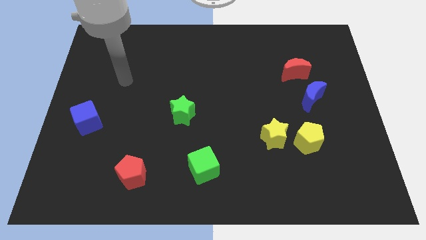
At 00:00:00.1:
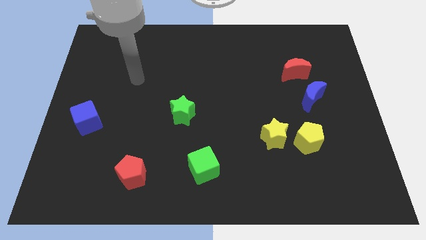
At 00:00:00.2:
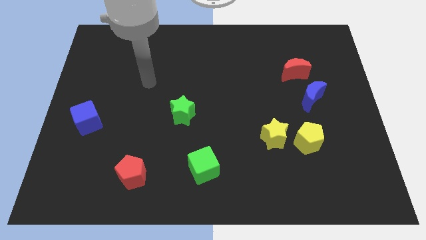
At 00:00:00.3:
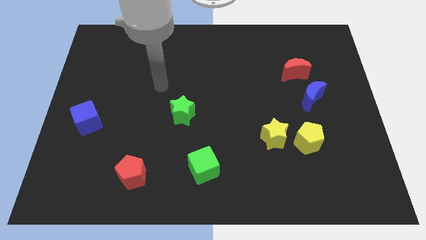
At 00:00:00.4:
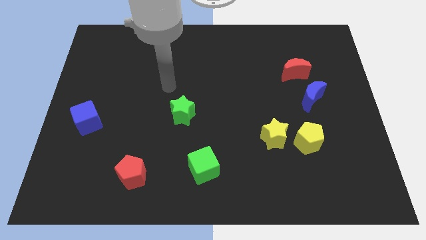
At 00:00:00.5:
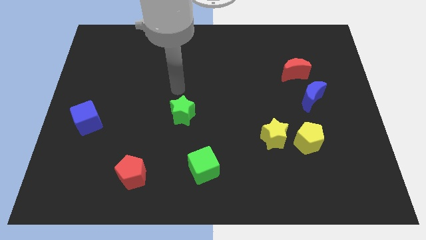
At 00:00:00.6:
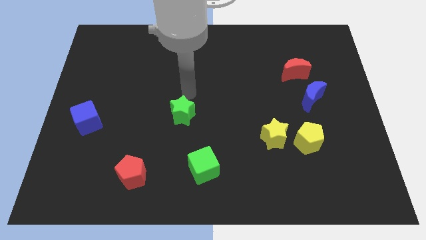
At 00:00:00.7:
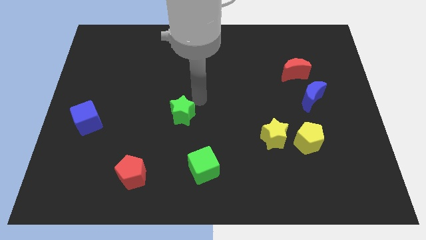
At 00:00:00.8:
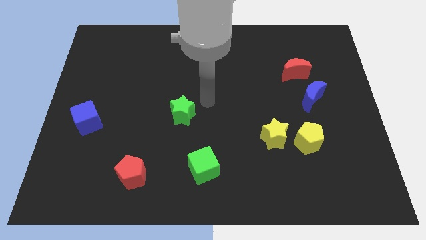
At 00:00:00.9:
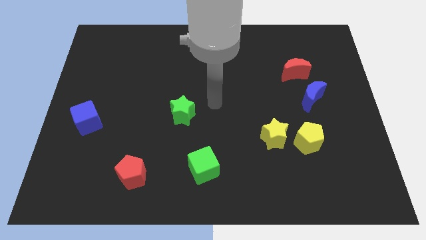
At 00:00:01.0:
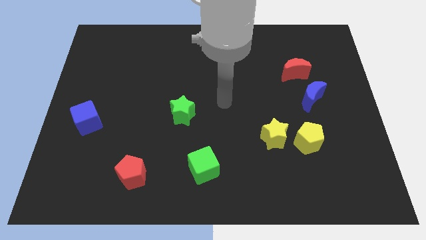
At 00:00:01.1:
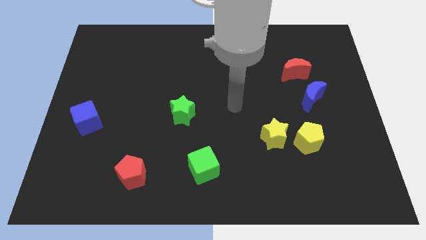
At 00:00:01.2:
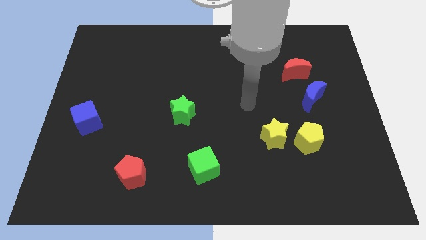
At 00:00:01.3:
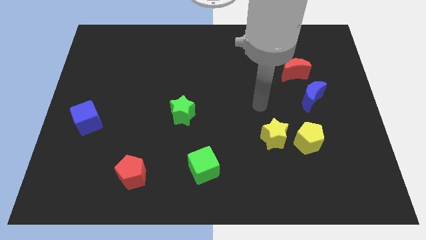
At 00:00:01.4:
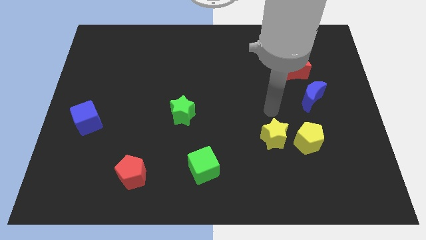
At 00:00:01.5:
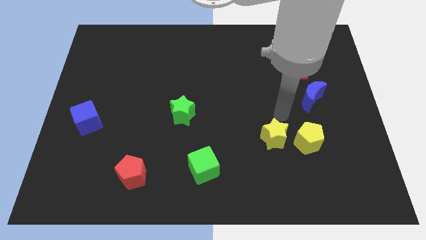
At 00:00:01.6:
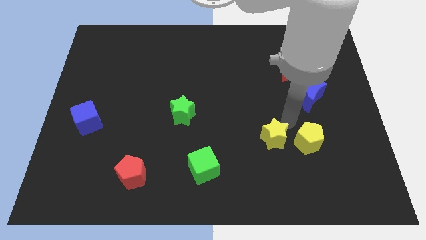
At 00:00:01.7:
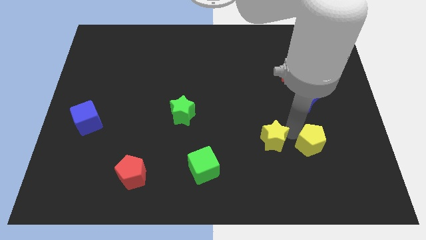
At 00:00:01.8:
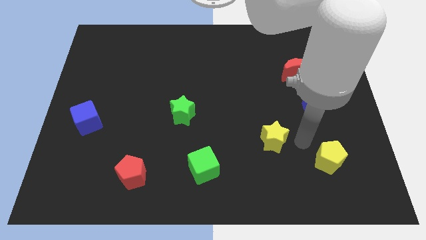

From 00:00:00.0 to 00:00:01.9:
move the yellow star away from the yellow pentagon

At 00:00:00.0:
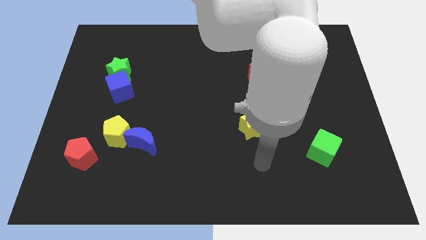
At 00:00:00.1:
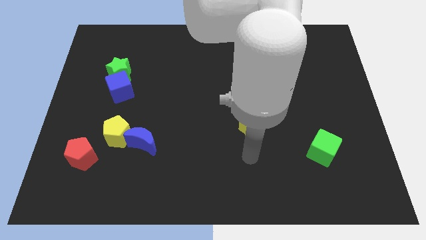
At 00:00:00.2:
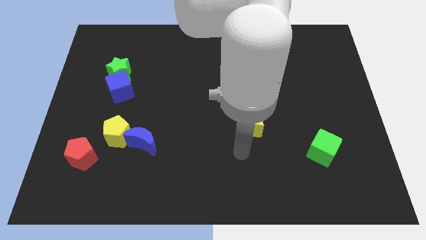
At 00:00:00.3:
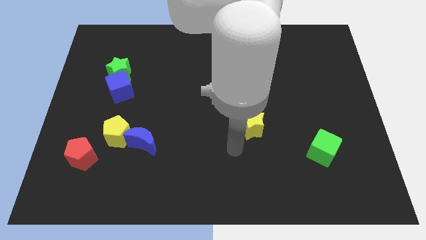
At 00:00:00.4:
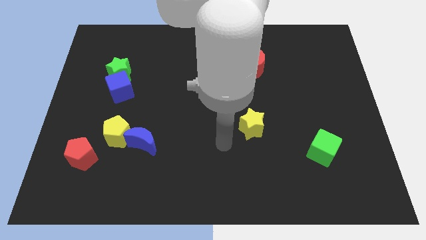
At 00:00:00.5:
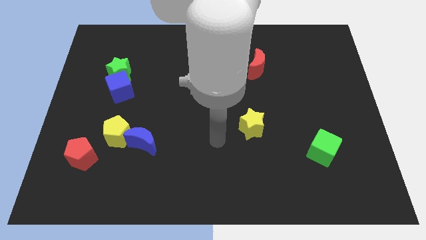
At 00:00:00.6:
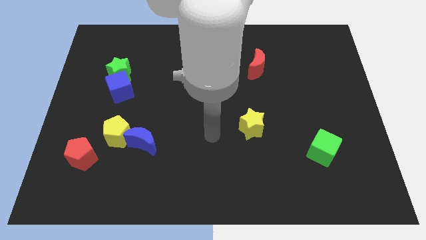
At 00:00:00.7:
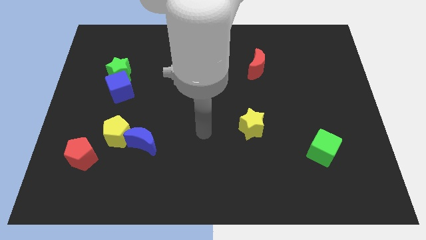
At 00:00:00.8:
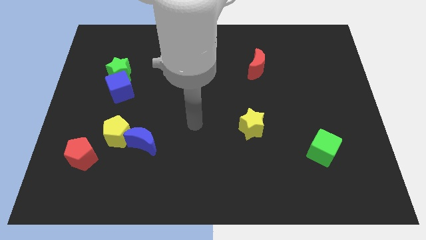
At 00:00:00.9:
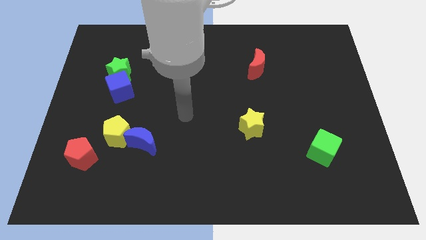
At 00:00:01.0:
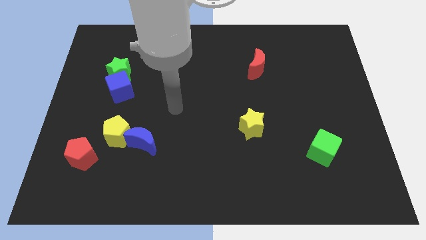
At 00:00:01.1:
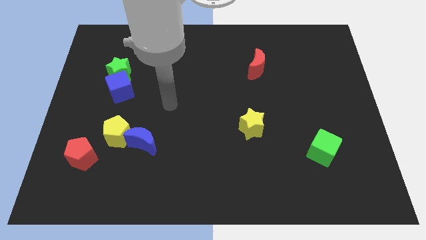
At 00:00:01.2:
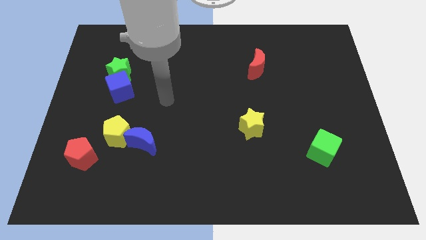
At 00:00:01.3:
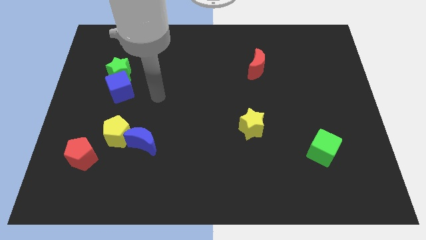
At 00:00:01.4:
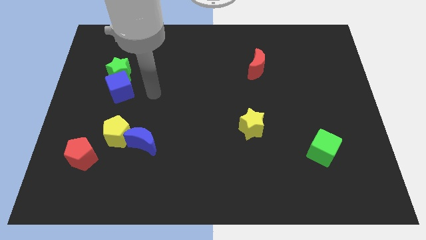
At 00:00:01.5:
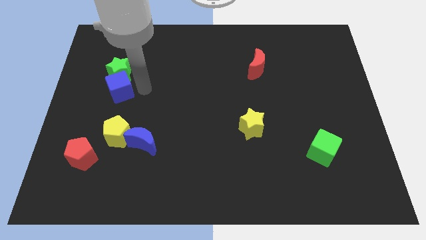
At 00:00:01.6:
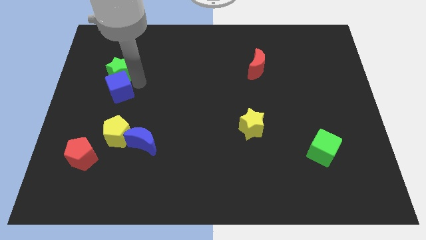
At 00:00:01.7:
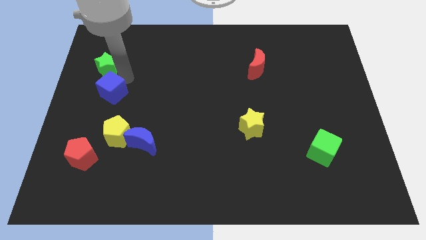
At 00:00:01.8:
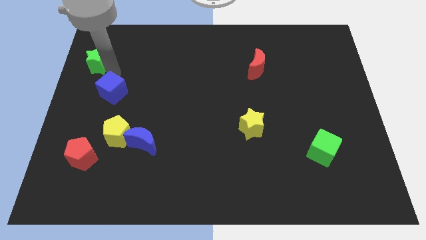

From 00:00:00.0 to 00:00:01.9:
pull the blue cube apart from the green star

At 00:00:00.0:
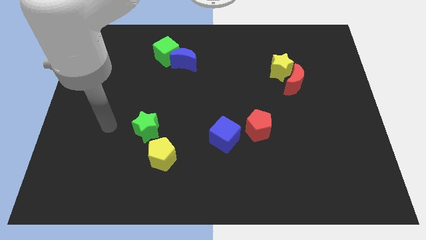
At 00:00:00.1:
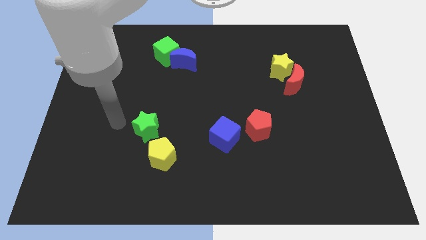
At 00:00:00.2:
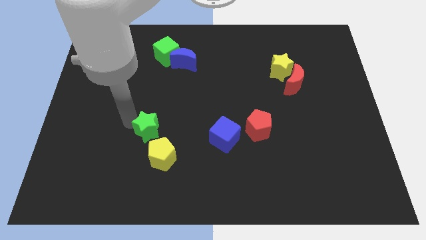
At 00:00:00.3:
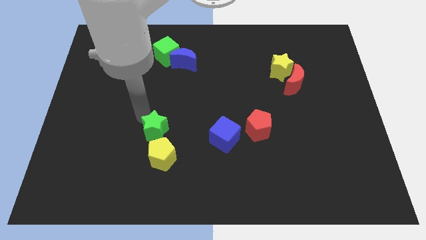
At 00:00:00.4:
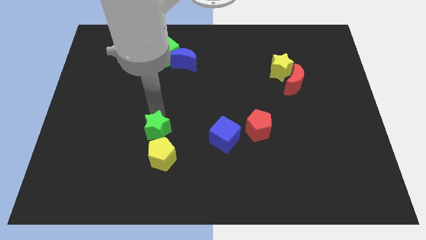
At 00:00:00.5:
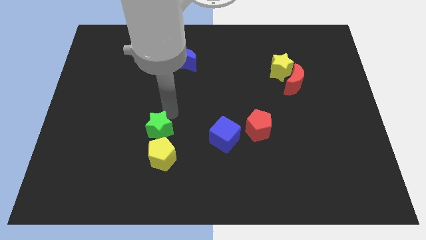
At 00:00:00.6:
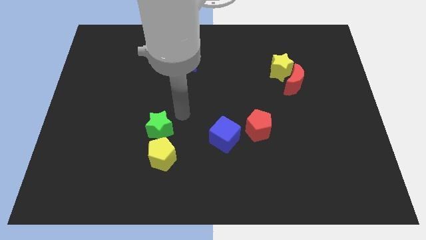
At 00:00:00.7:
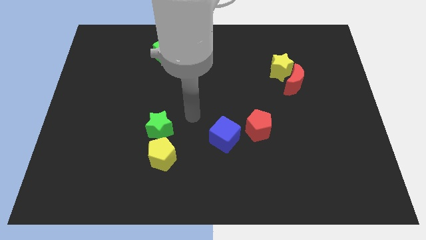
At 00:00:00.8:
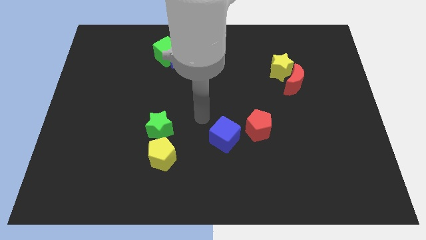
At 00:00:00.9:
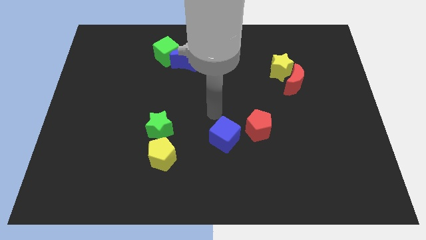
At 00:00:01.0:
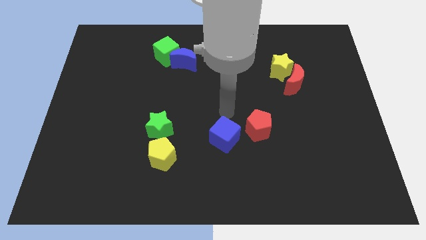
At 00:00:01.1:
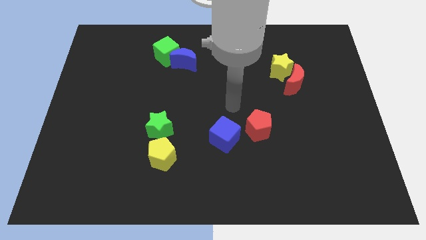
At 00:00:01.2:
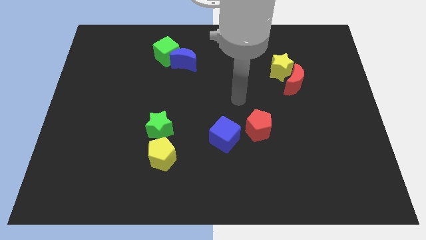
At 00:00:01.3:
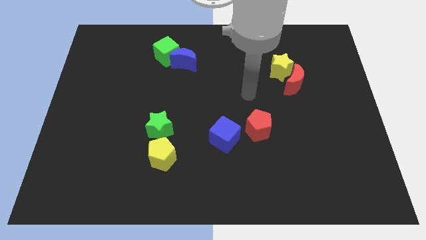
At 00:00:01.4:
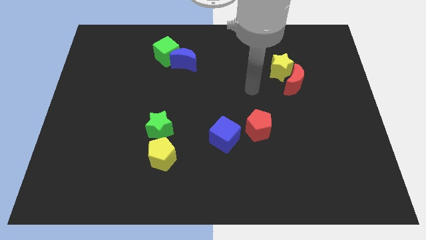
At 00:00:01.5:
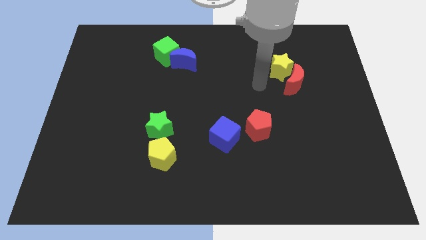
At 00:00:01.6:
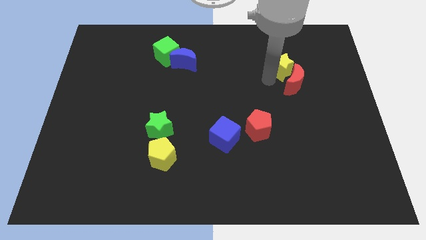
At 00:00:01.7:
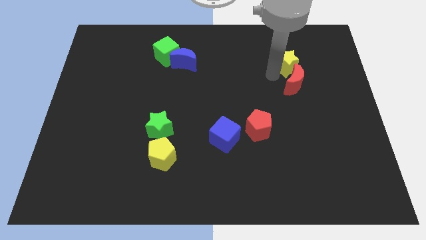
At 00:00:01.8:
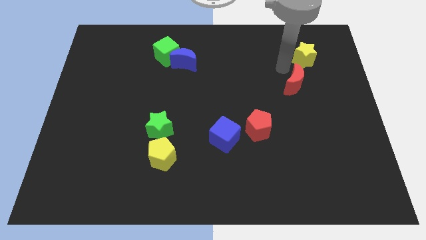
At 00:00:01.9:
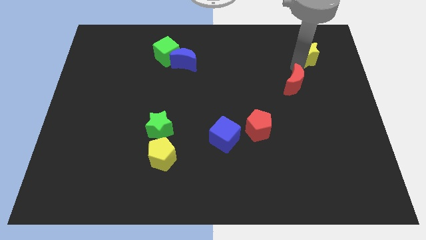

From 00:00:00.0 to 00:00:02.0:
separate the red moon from the yellow star

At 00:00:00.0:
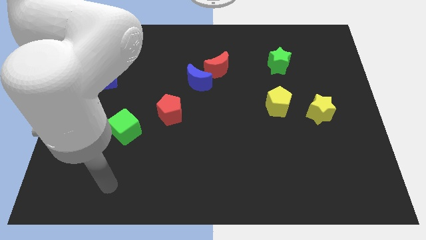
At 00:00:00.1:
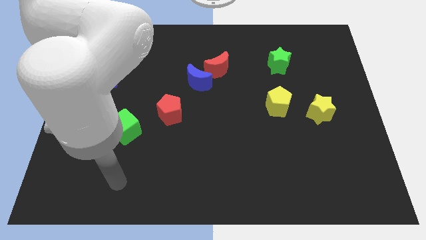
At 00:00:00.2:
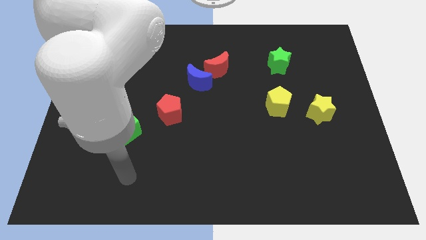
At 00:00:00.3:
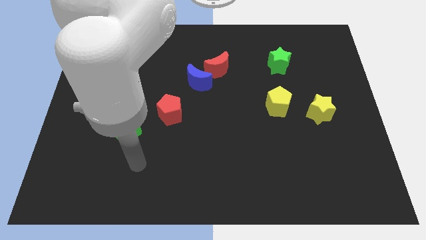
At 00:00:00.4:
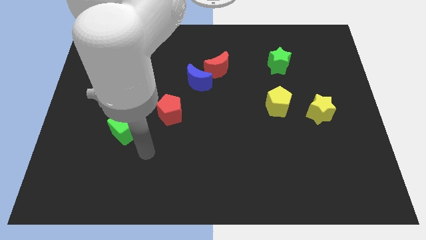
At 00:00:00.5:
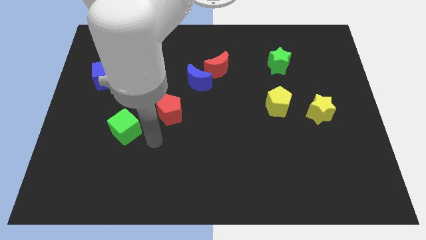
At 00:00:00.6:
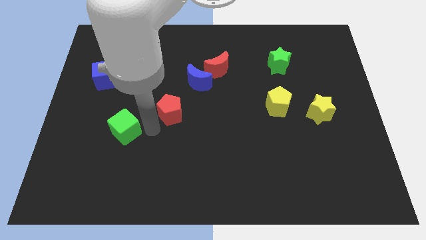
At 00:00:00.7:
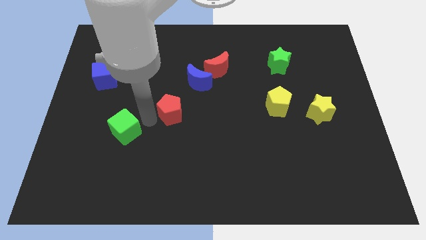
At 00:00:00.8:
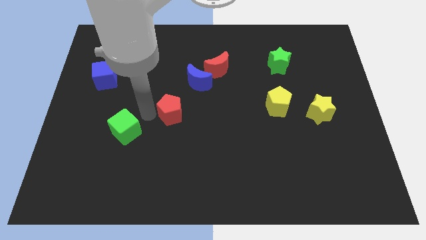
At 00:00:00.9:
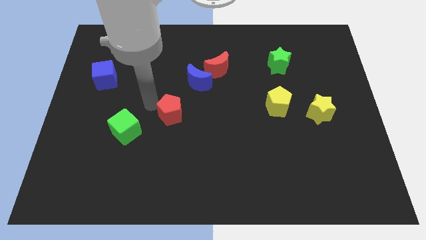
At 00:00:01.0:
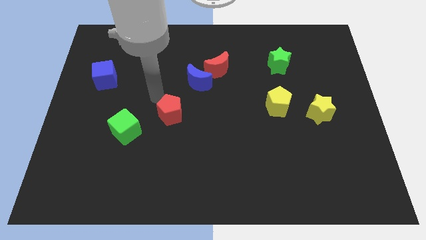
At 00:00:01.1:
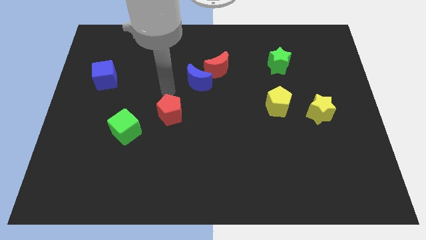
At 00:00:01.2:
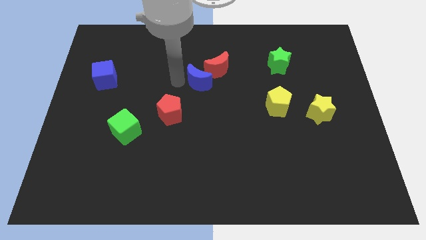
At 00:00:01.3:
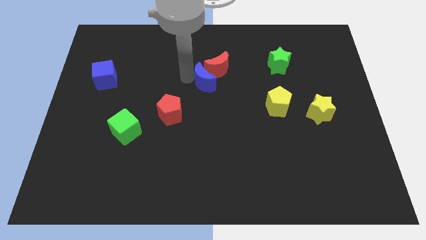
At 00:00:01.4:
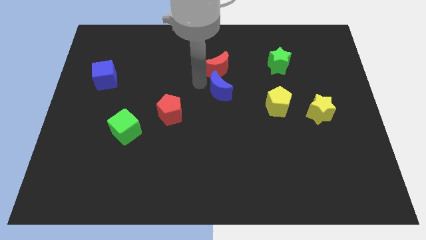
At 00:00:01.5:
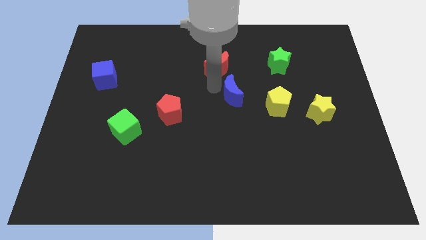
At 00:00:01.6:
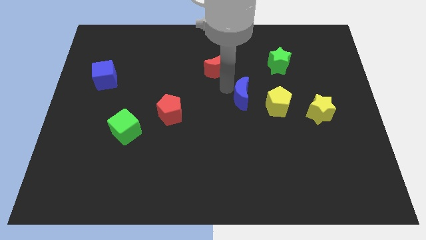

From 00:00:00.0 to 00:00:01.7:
separate the red moon from the blue moon

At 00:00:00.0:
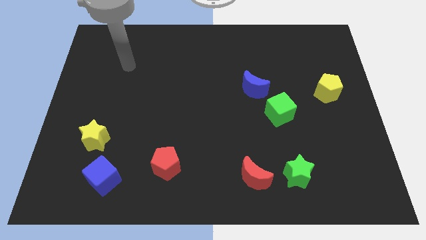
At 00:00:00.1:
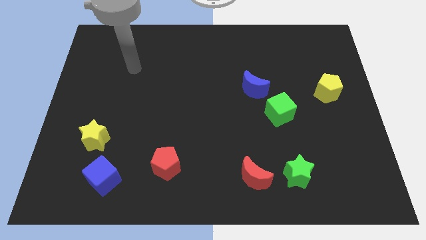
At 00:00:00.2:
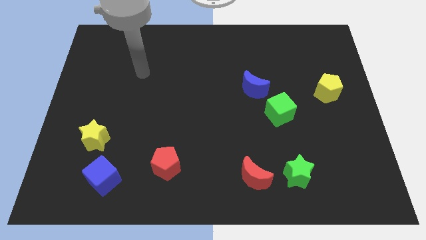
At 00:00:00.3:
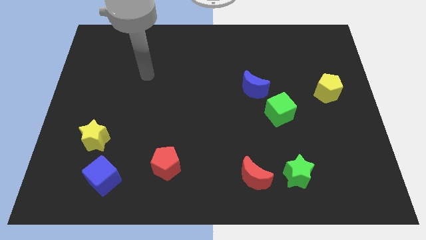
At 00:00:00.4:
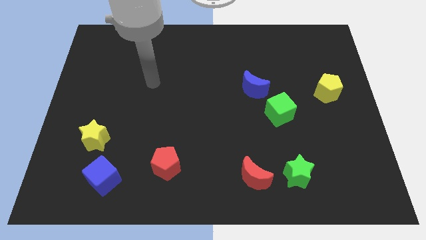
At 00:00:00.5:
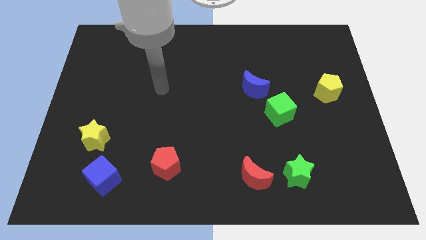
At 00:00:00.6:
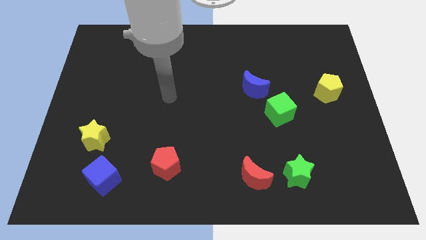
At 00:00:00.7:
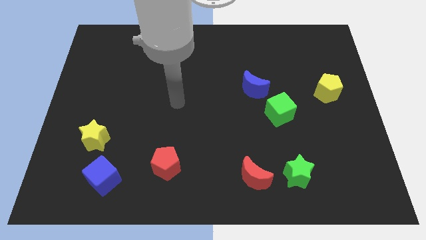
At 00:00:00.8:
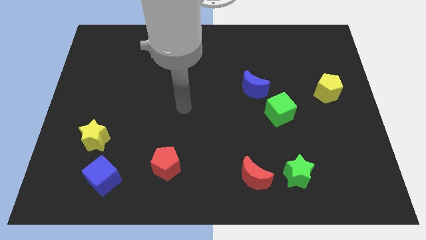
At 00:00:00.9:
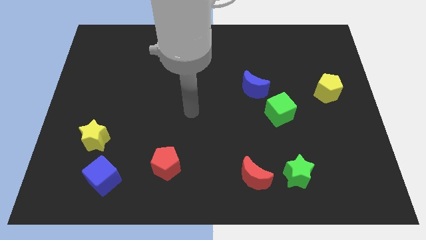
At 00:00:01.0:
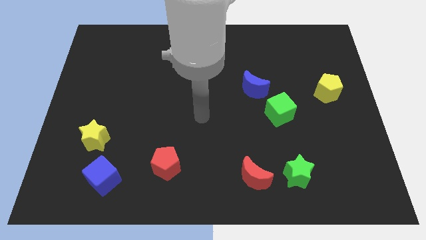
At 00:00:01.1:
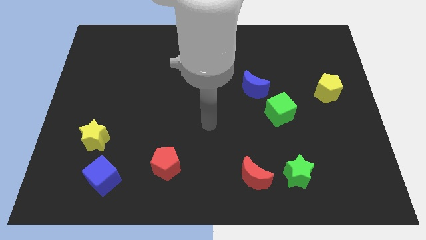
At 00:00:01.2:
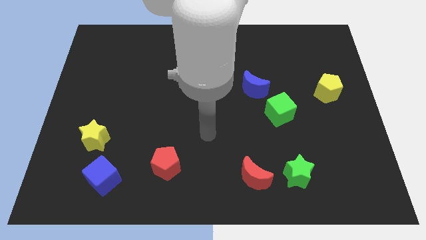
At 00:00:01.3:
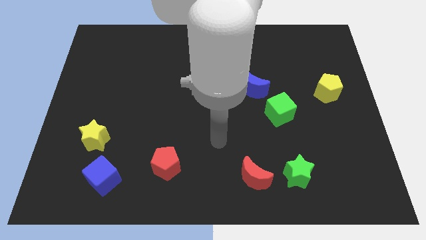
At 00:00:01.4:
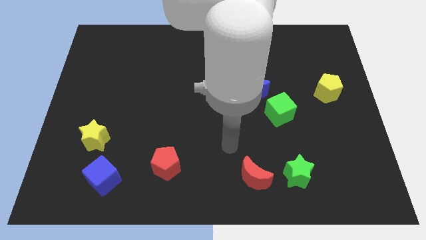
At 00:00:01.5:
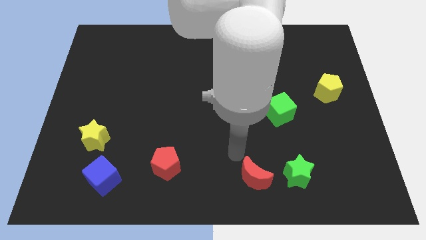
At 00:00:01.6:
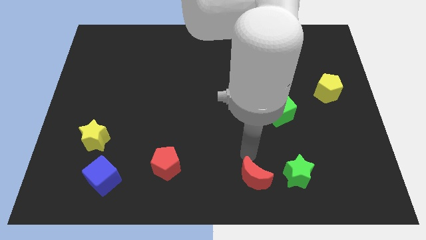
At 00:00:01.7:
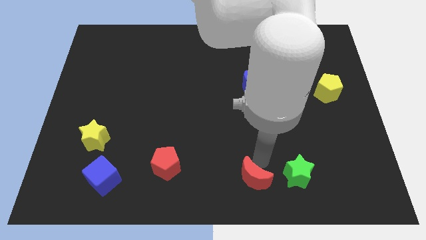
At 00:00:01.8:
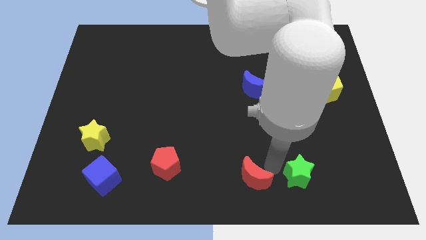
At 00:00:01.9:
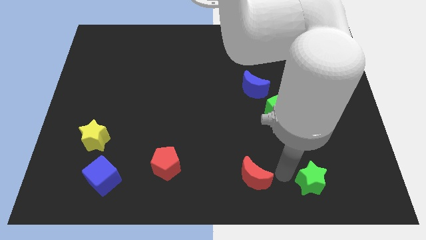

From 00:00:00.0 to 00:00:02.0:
move the red moon away from the green star
